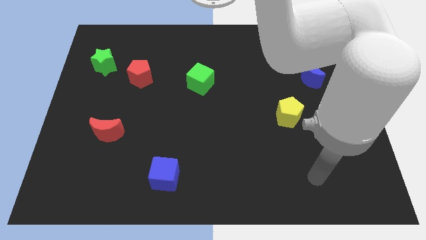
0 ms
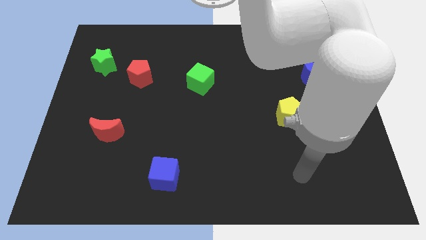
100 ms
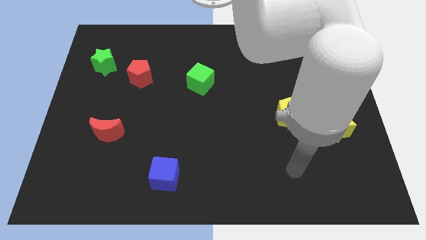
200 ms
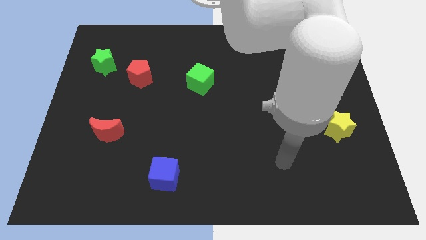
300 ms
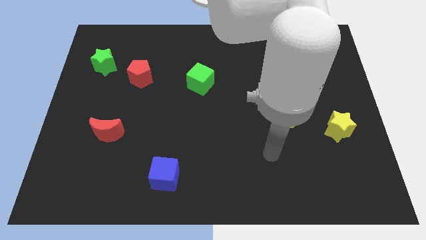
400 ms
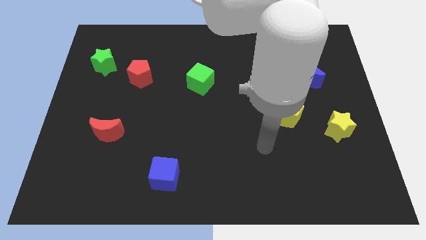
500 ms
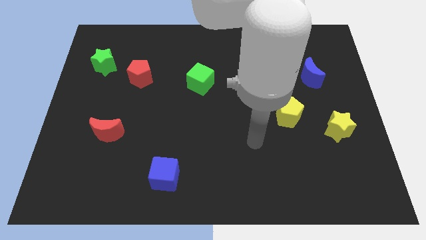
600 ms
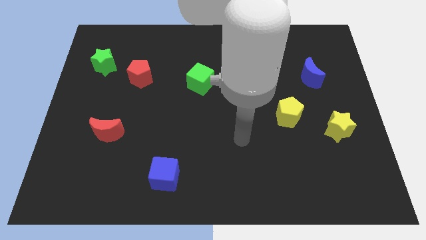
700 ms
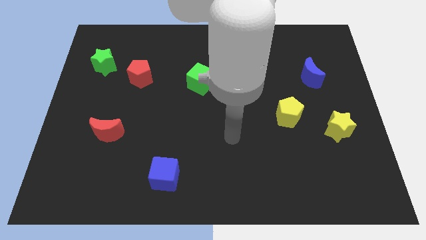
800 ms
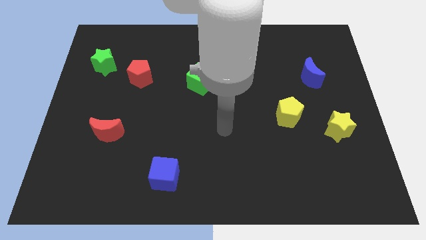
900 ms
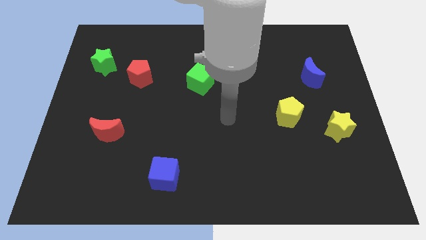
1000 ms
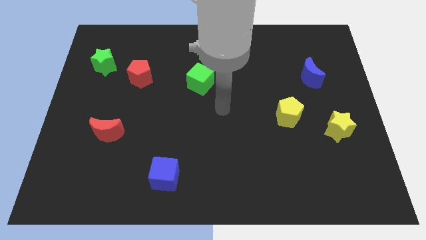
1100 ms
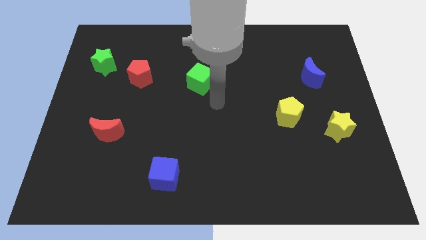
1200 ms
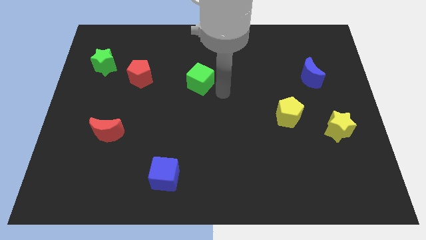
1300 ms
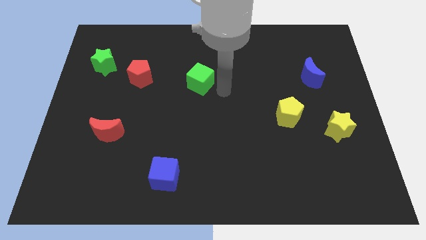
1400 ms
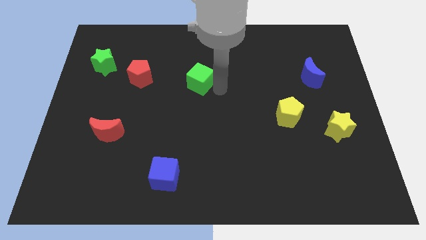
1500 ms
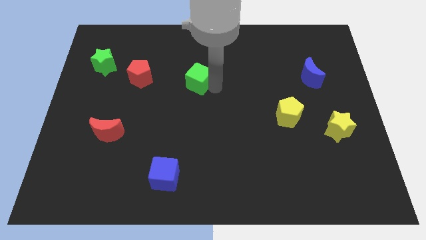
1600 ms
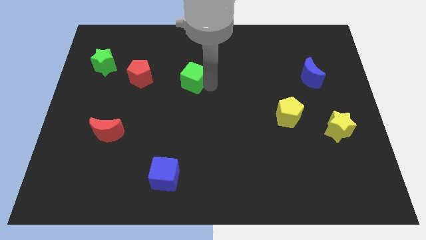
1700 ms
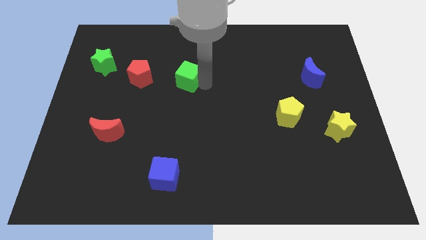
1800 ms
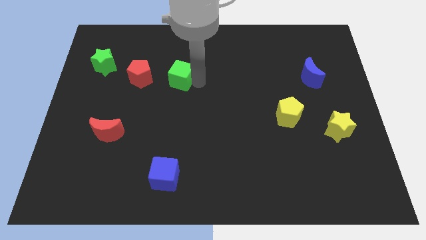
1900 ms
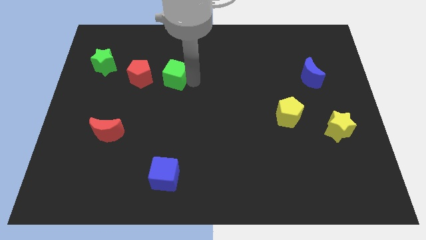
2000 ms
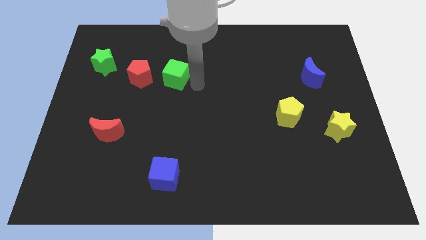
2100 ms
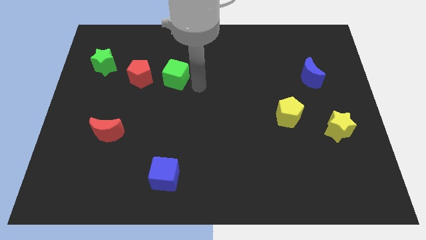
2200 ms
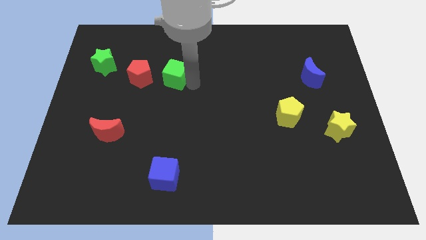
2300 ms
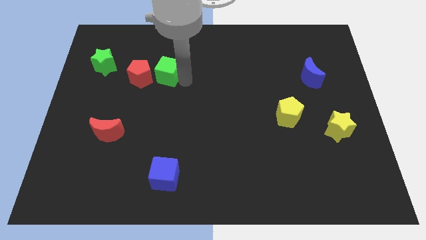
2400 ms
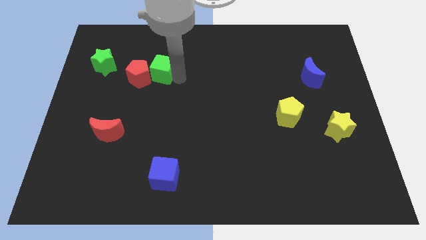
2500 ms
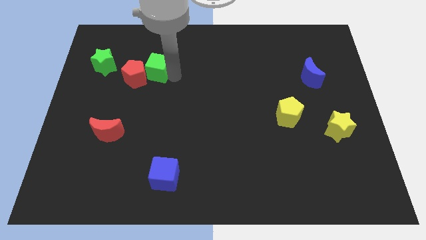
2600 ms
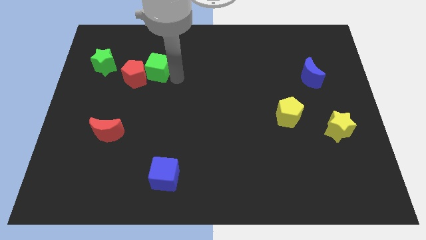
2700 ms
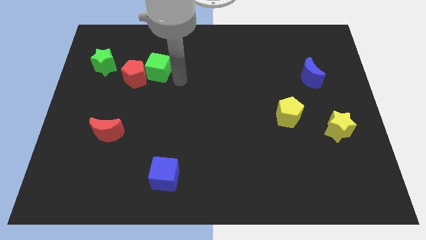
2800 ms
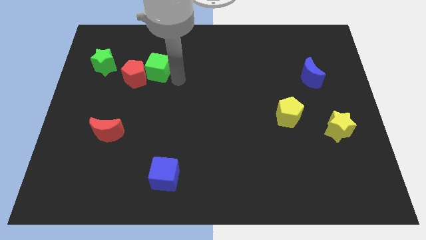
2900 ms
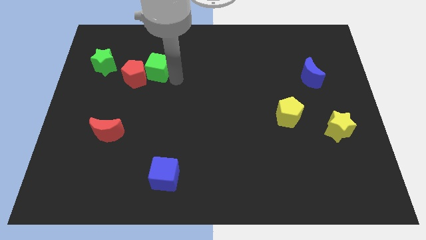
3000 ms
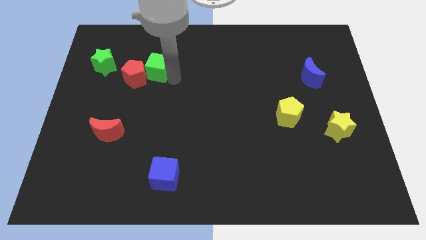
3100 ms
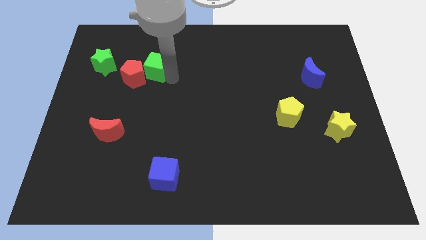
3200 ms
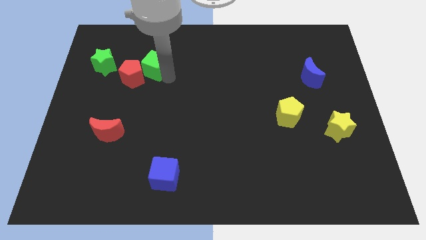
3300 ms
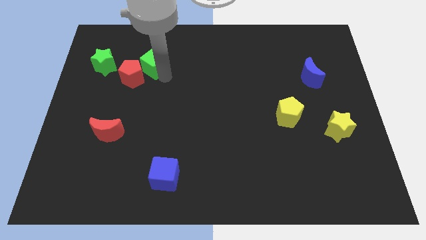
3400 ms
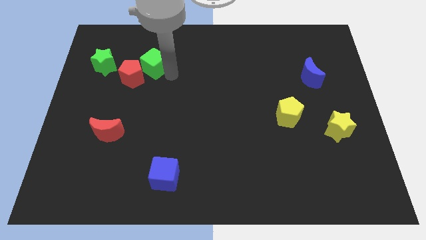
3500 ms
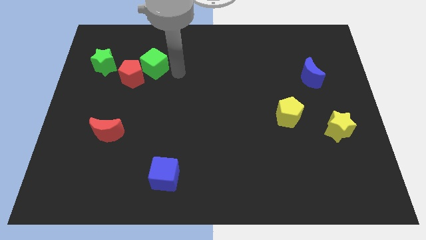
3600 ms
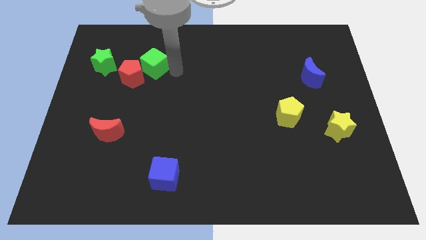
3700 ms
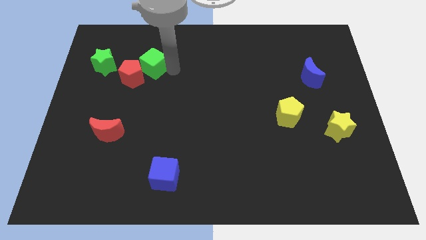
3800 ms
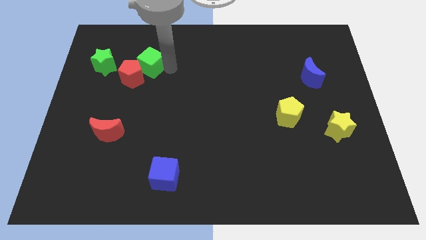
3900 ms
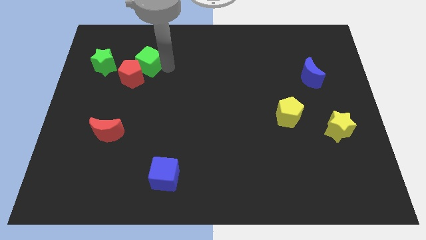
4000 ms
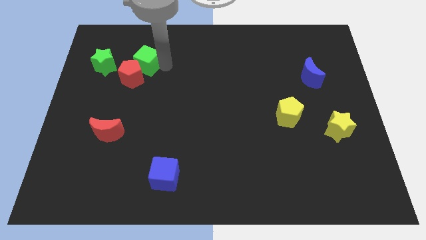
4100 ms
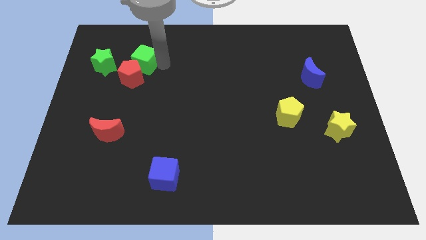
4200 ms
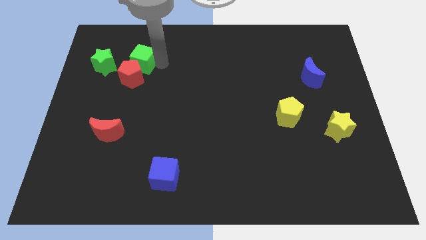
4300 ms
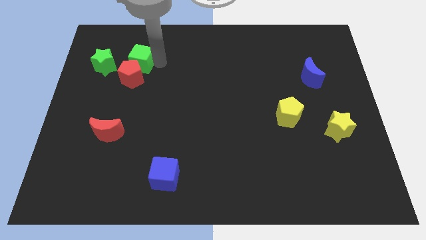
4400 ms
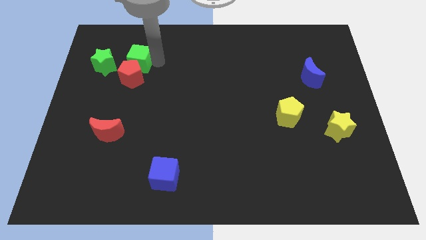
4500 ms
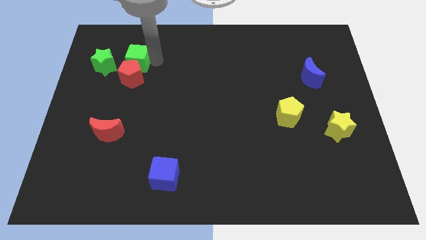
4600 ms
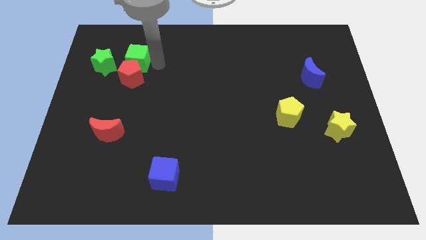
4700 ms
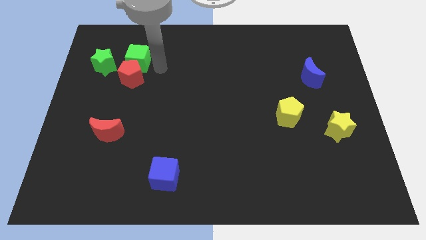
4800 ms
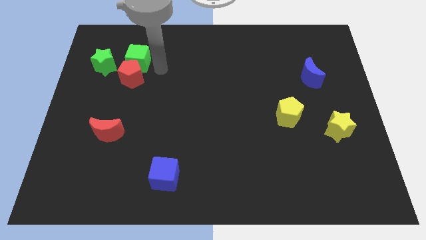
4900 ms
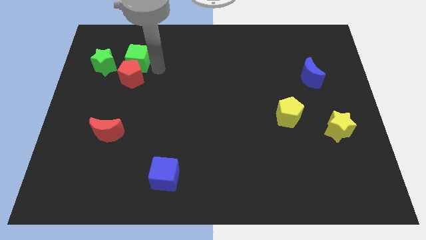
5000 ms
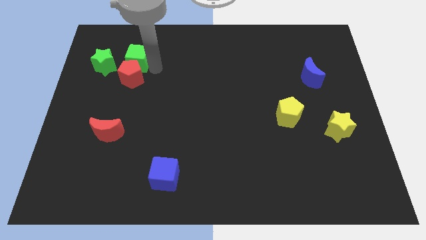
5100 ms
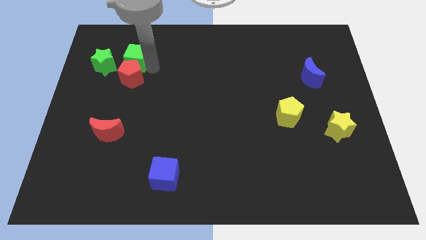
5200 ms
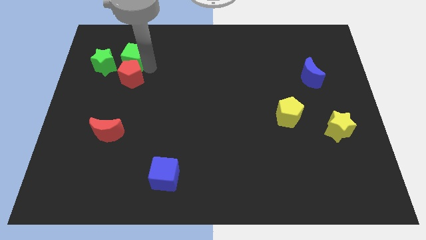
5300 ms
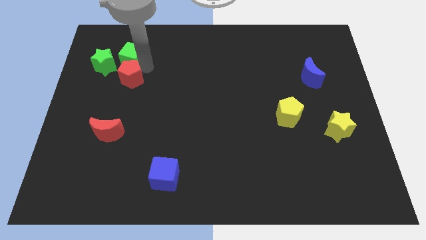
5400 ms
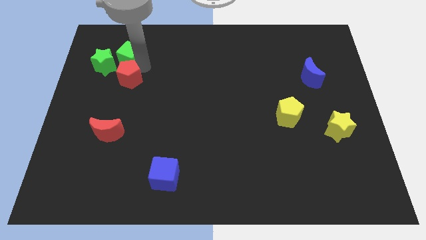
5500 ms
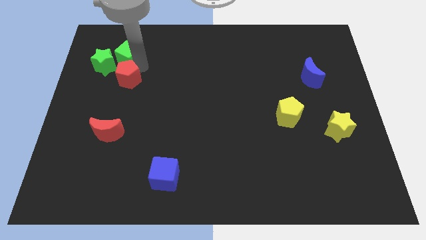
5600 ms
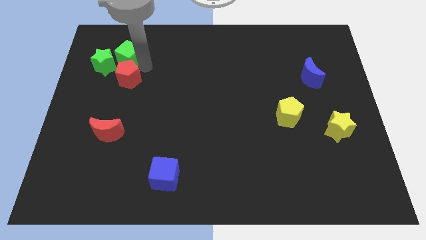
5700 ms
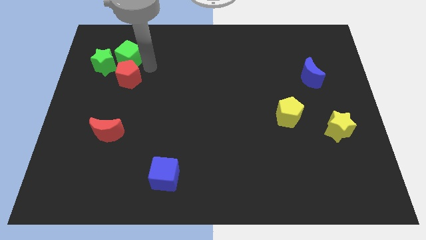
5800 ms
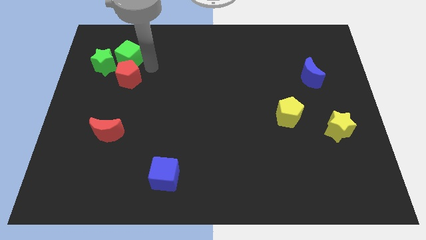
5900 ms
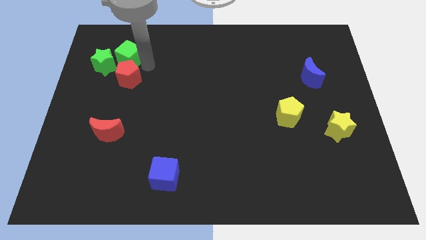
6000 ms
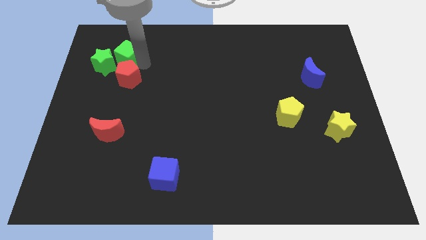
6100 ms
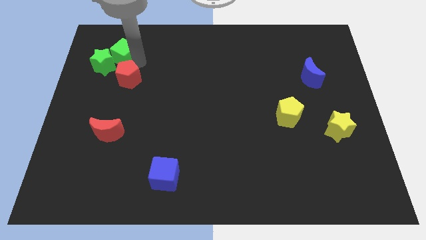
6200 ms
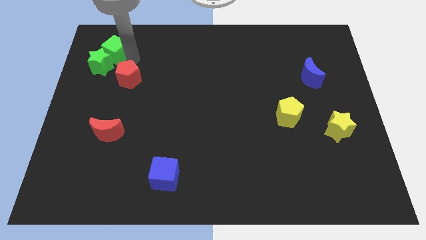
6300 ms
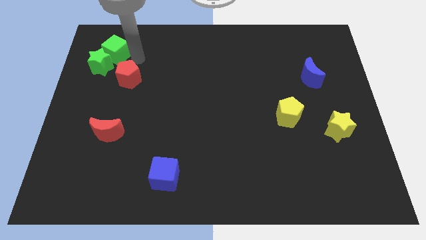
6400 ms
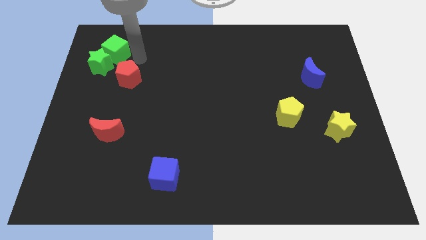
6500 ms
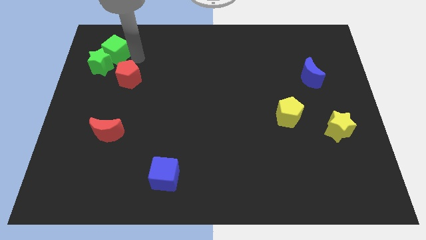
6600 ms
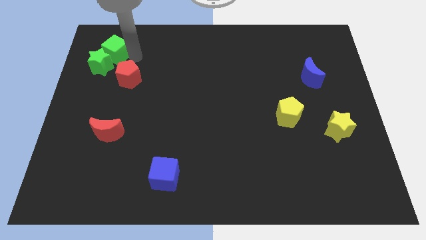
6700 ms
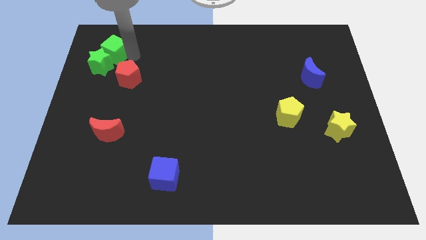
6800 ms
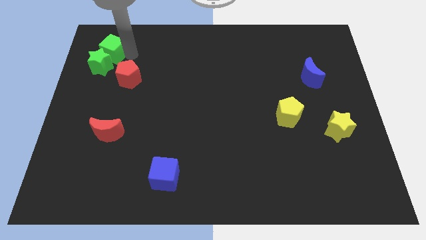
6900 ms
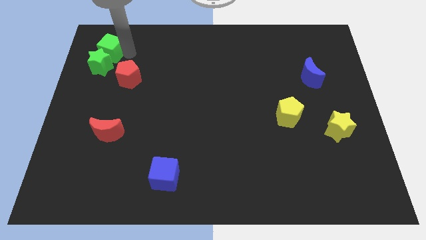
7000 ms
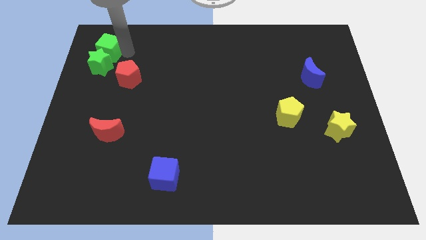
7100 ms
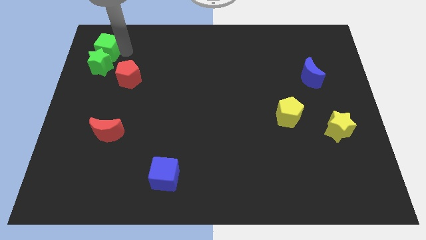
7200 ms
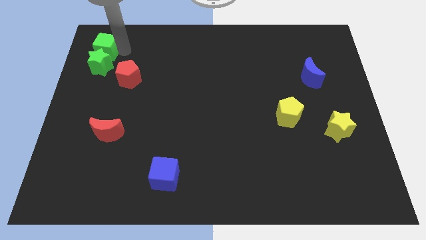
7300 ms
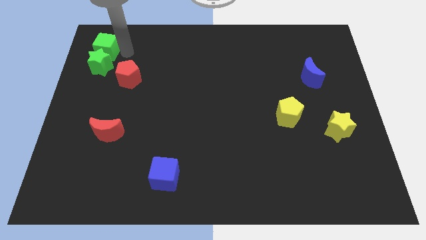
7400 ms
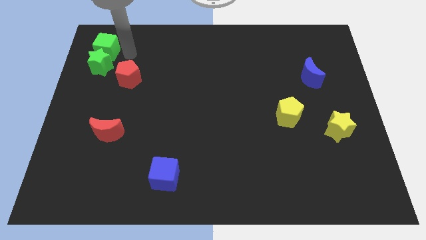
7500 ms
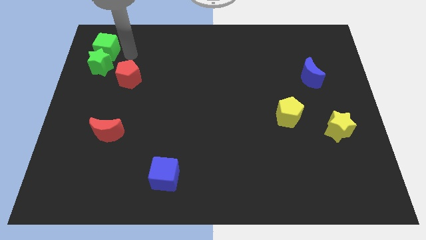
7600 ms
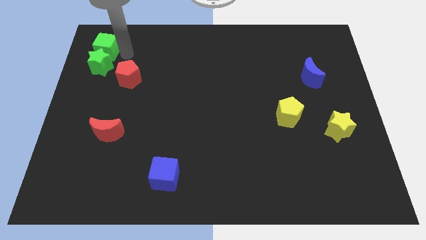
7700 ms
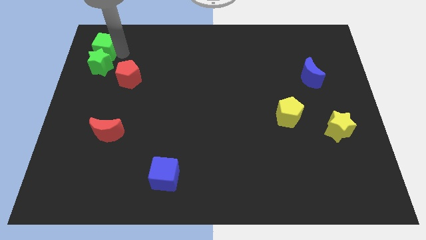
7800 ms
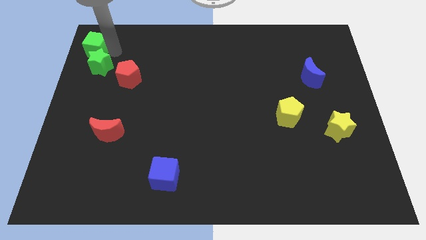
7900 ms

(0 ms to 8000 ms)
push the green cube to the upper left corner

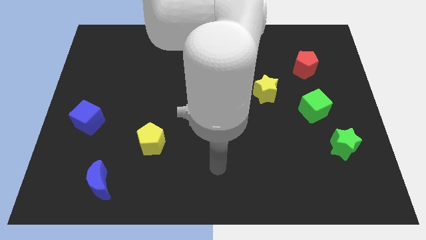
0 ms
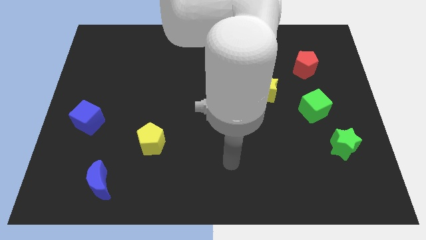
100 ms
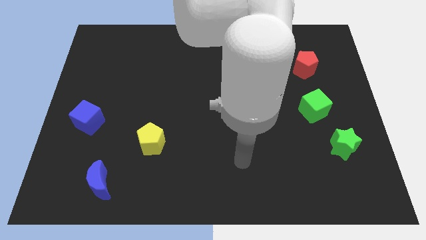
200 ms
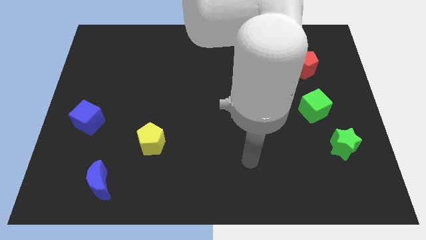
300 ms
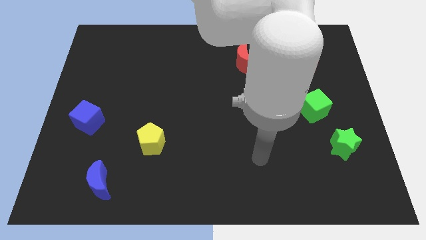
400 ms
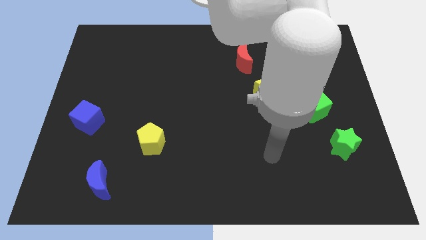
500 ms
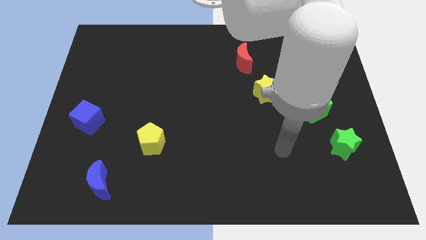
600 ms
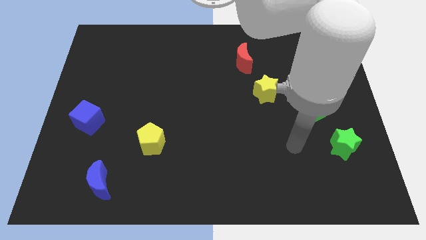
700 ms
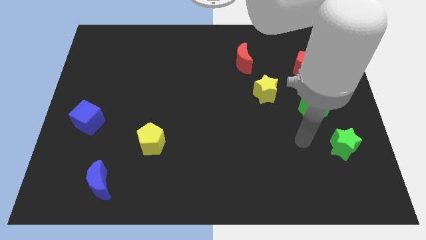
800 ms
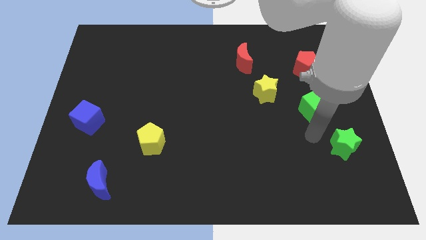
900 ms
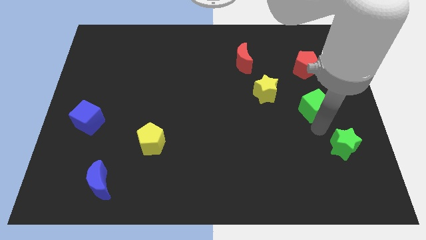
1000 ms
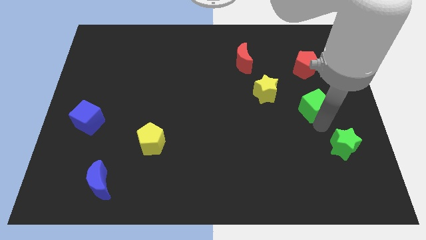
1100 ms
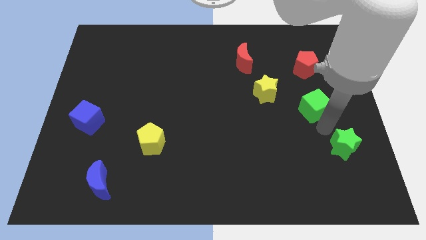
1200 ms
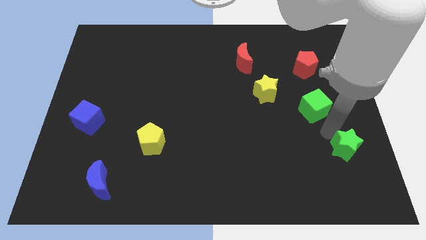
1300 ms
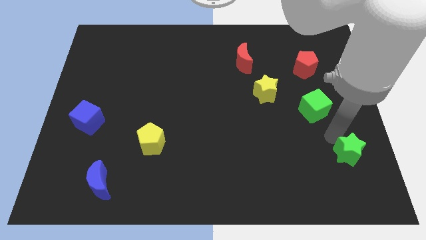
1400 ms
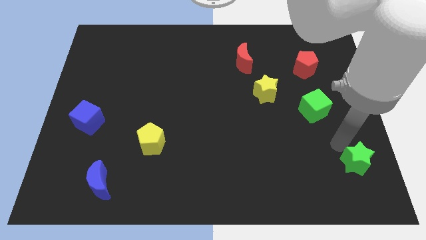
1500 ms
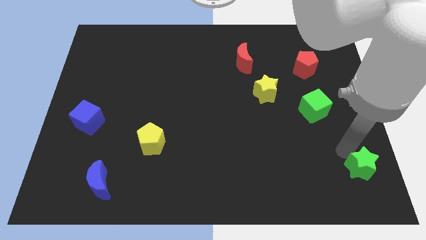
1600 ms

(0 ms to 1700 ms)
move the green star to the bottom right
